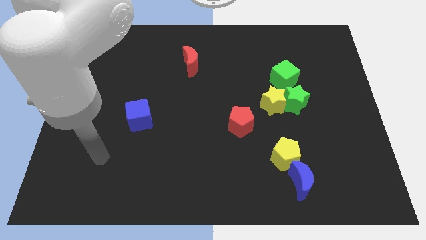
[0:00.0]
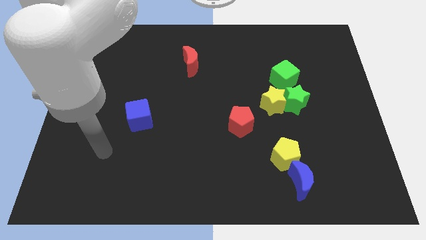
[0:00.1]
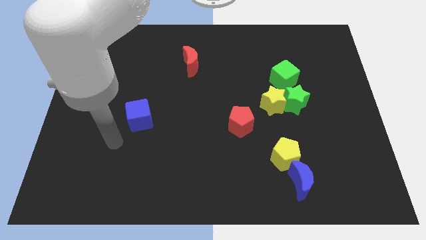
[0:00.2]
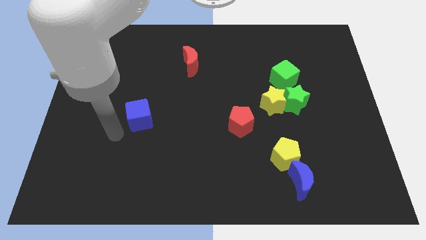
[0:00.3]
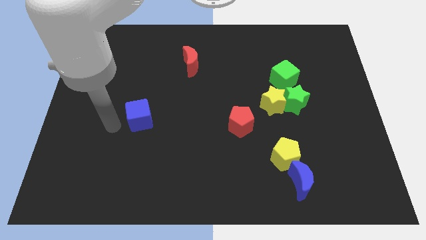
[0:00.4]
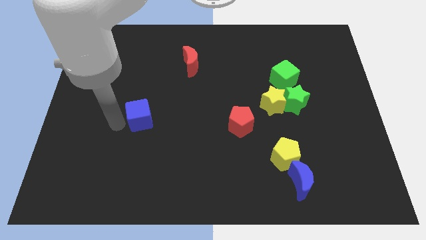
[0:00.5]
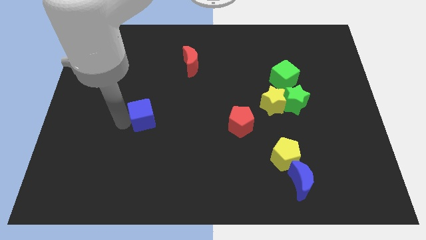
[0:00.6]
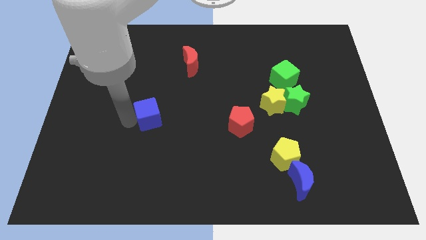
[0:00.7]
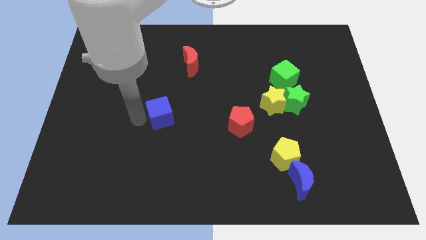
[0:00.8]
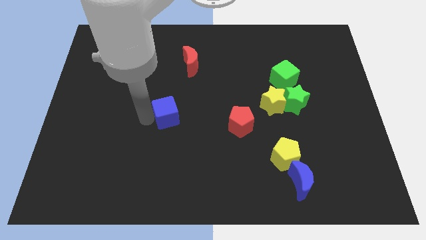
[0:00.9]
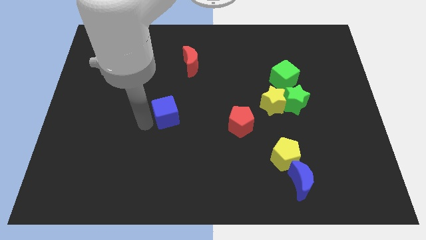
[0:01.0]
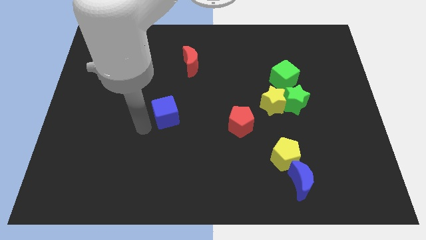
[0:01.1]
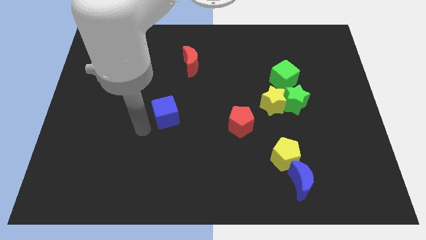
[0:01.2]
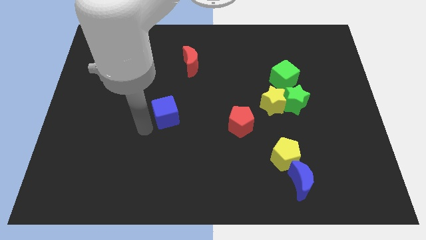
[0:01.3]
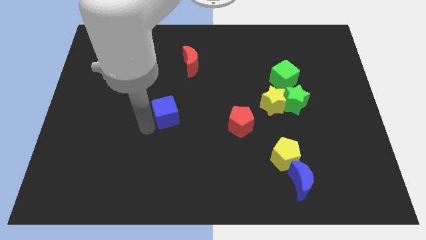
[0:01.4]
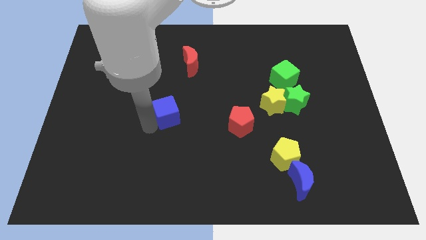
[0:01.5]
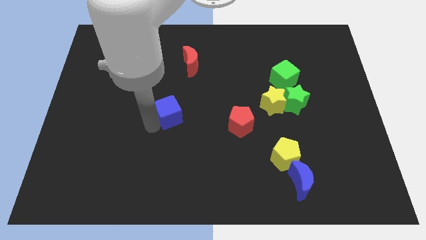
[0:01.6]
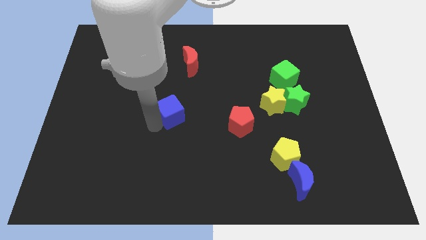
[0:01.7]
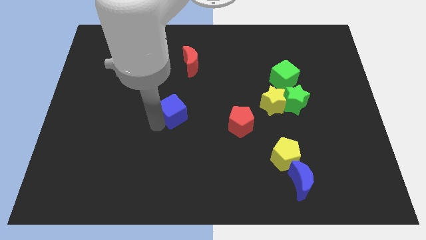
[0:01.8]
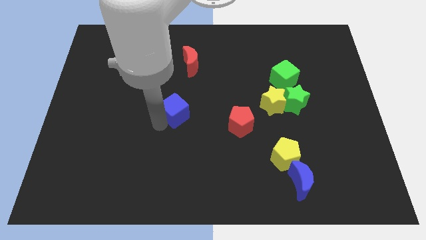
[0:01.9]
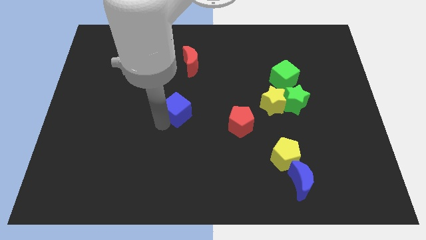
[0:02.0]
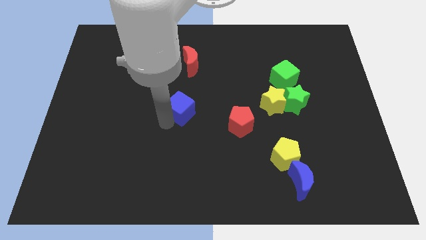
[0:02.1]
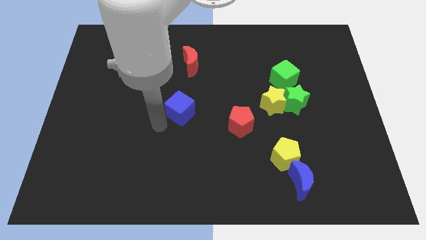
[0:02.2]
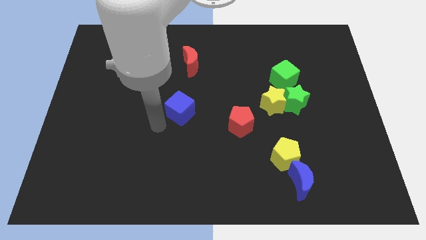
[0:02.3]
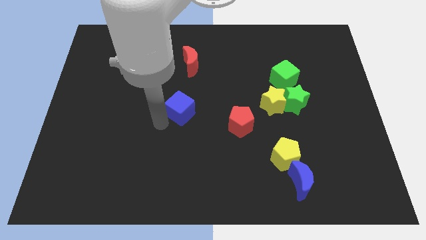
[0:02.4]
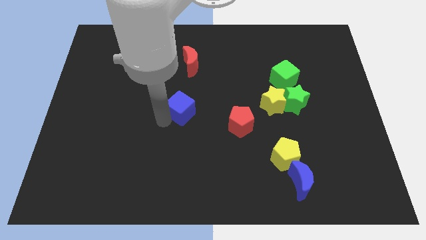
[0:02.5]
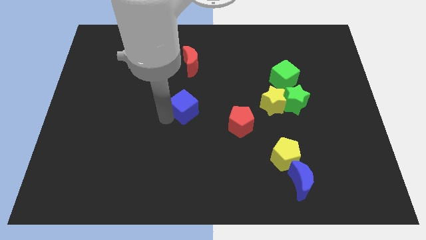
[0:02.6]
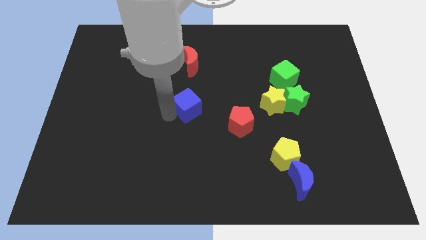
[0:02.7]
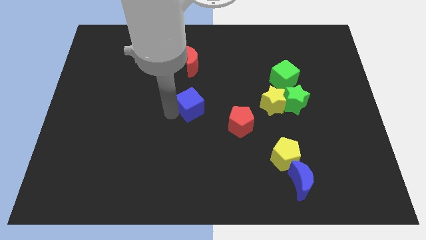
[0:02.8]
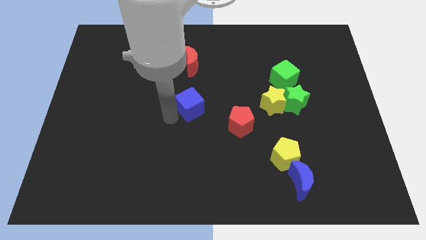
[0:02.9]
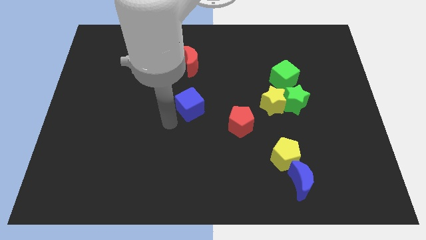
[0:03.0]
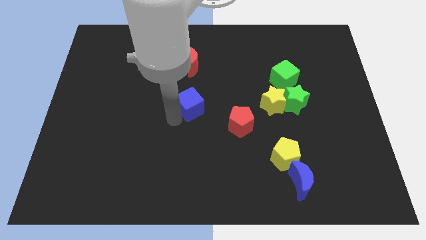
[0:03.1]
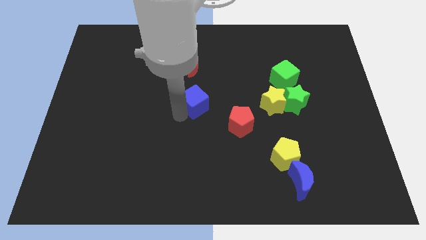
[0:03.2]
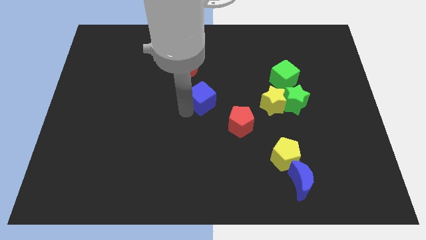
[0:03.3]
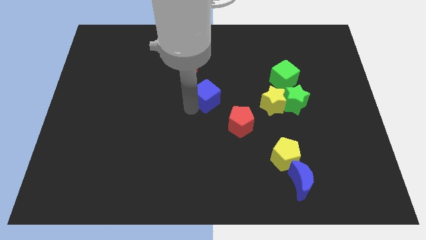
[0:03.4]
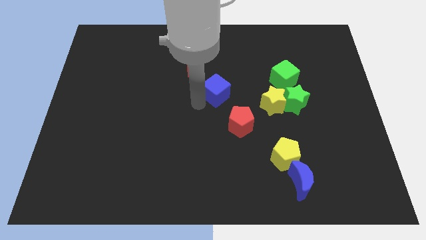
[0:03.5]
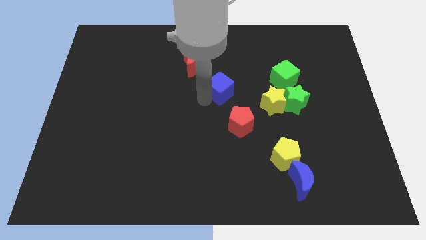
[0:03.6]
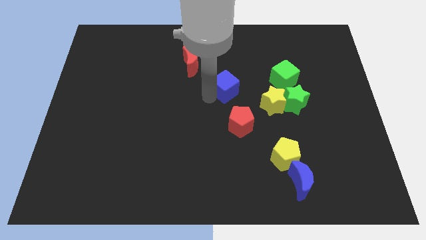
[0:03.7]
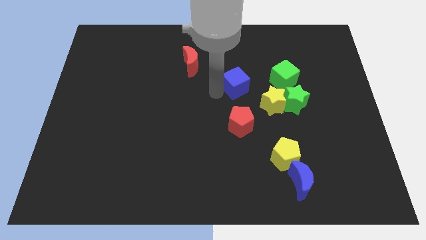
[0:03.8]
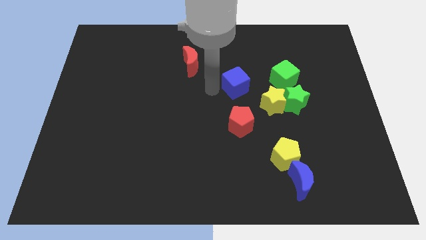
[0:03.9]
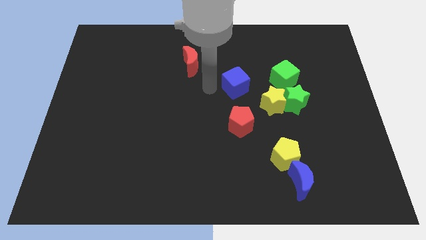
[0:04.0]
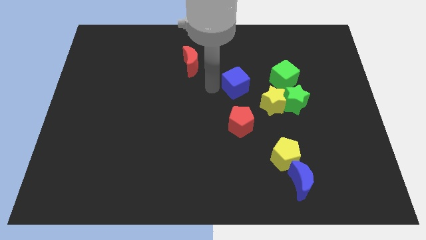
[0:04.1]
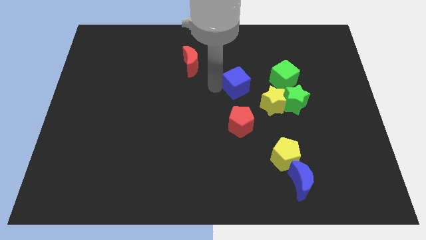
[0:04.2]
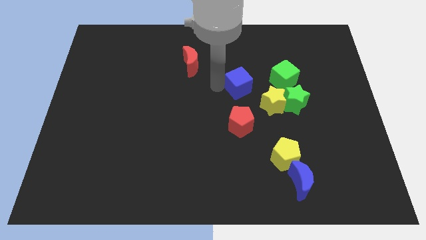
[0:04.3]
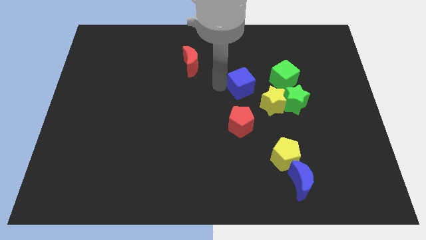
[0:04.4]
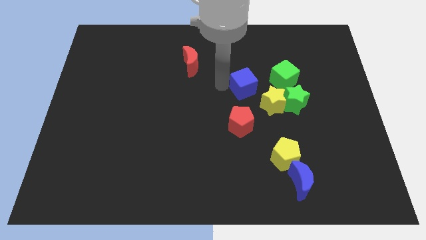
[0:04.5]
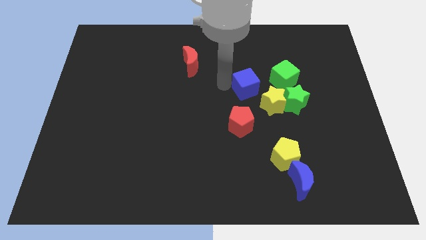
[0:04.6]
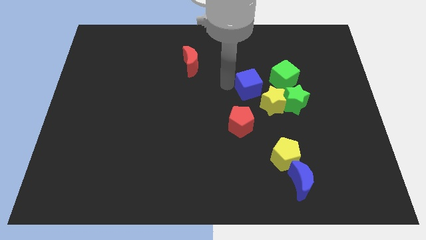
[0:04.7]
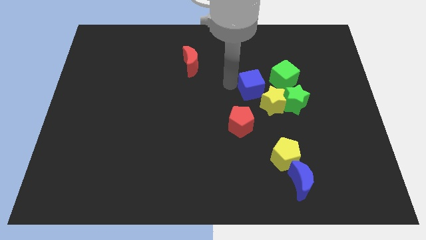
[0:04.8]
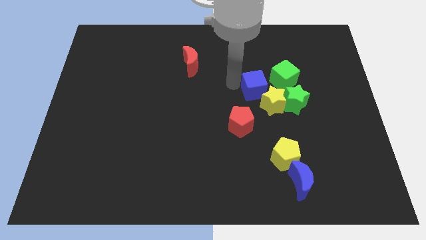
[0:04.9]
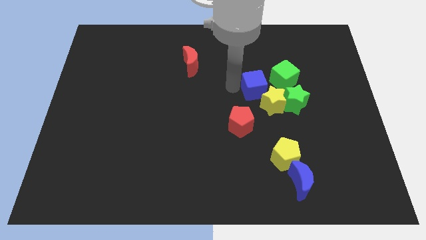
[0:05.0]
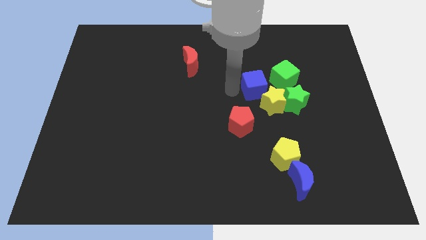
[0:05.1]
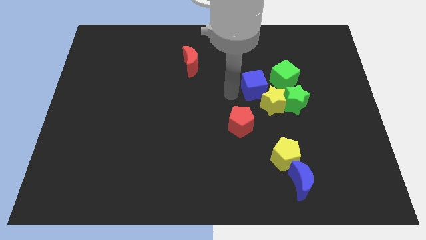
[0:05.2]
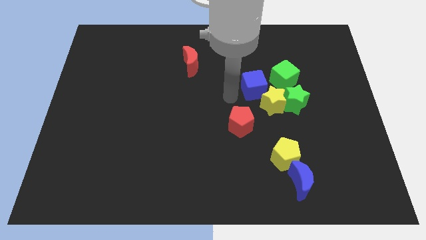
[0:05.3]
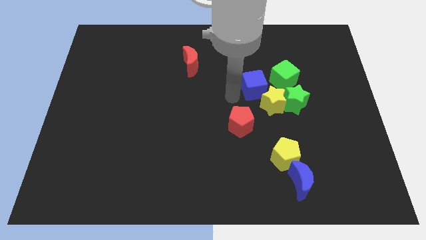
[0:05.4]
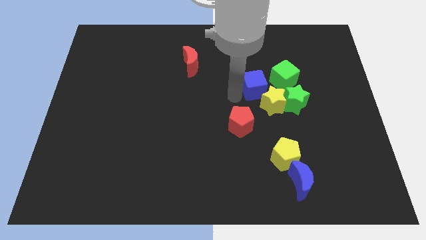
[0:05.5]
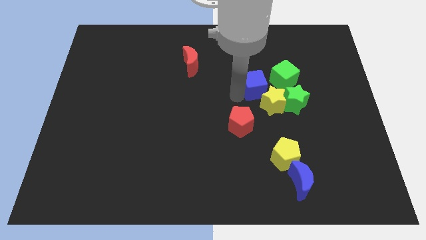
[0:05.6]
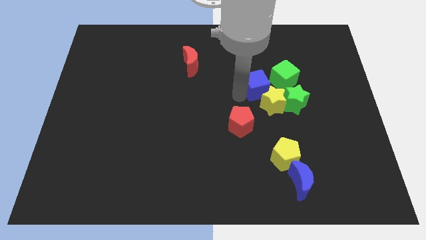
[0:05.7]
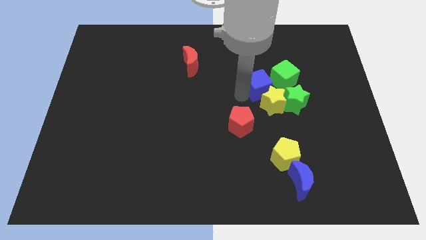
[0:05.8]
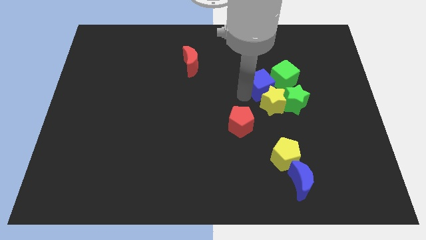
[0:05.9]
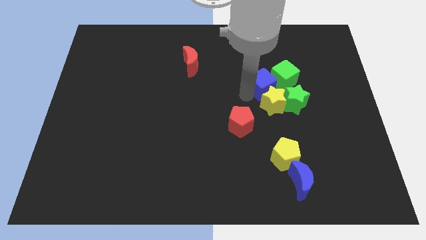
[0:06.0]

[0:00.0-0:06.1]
slide the blue cube to the green cube

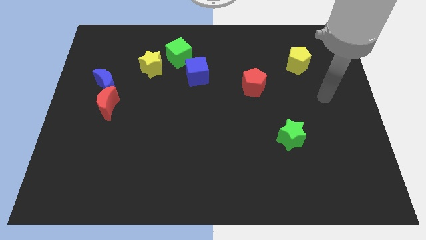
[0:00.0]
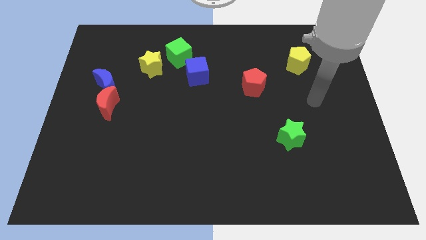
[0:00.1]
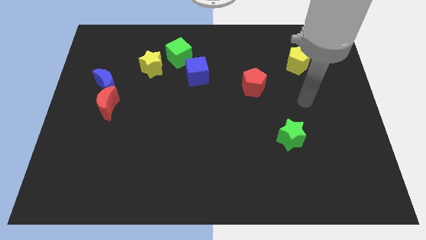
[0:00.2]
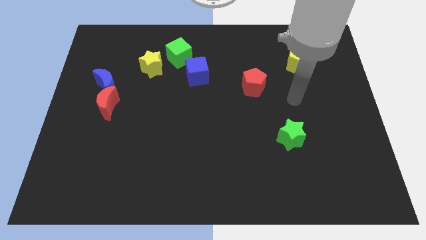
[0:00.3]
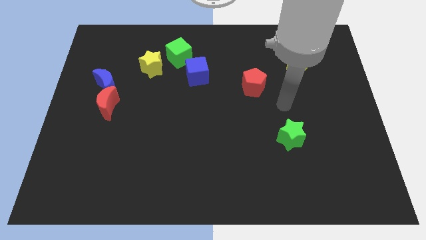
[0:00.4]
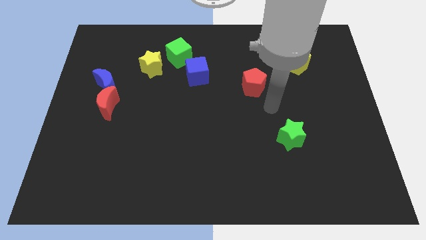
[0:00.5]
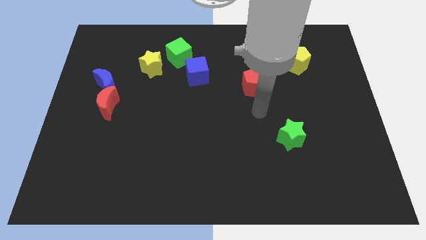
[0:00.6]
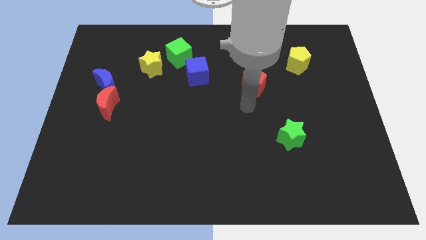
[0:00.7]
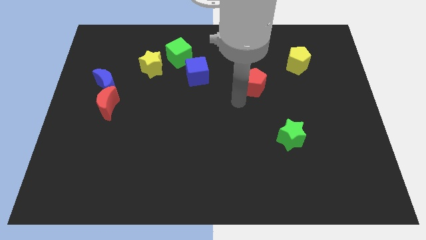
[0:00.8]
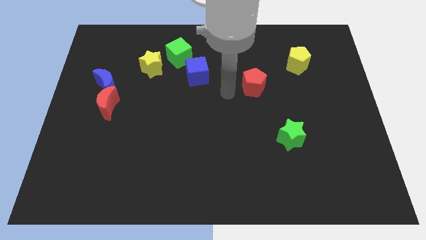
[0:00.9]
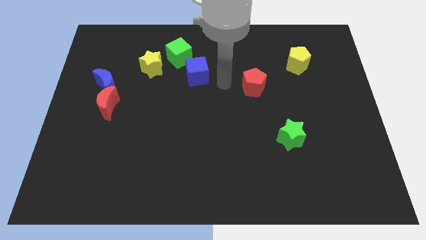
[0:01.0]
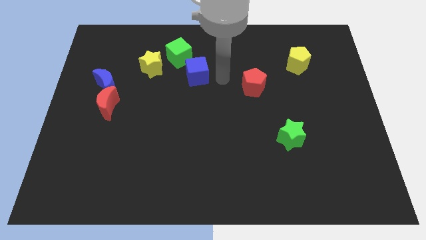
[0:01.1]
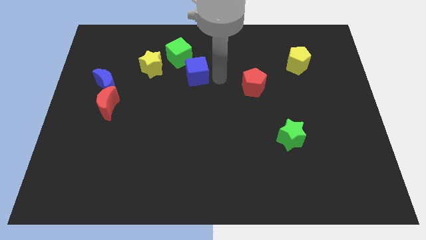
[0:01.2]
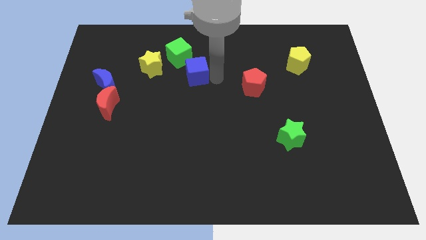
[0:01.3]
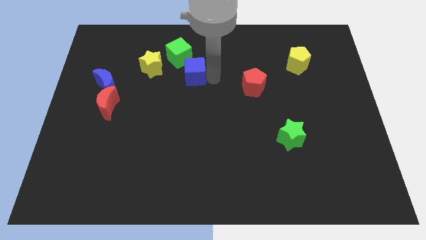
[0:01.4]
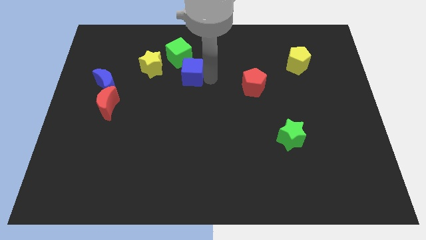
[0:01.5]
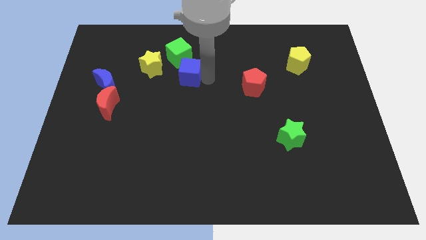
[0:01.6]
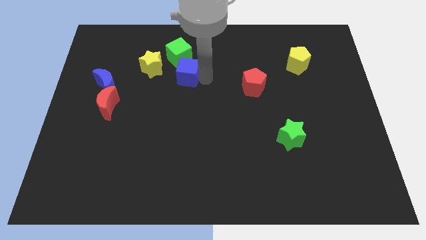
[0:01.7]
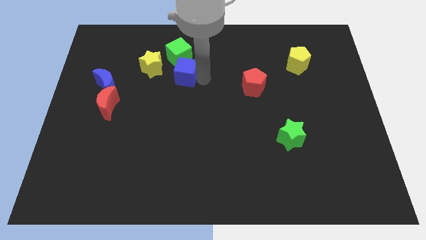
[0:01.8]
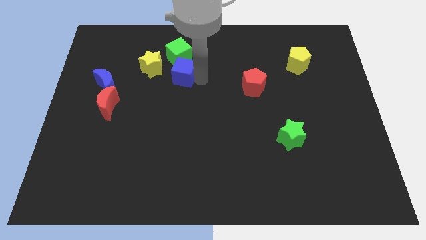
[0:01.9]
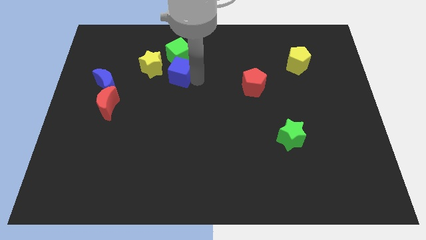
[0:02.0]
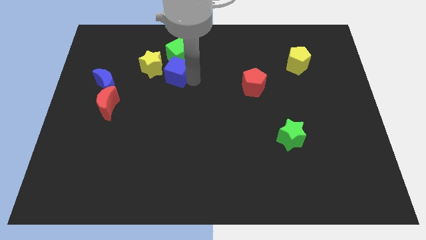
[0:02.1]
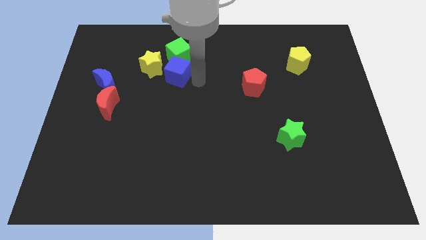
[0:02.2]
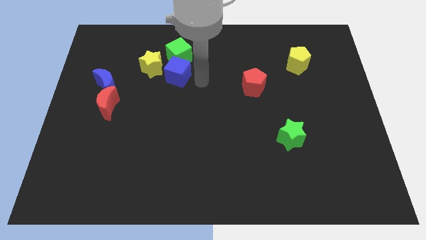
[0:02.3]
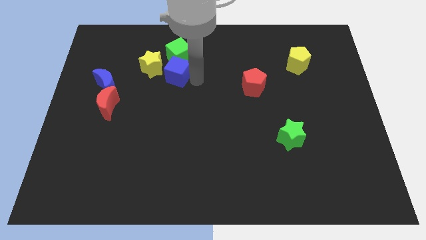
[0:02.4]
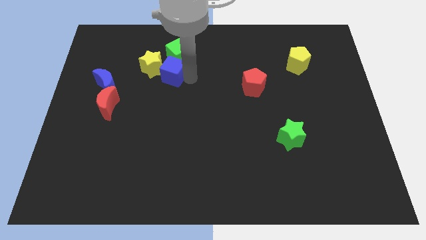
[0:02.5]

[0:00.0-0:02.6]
slide the blue cube close to the yellow star
